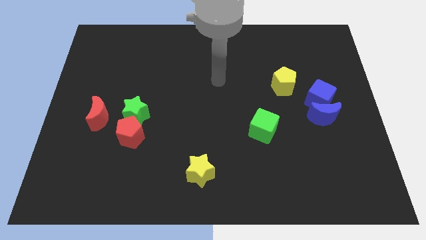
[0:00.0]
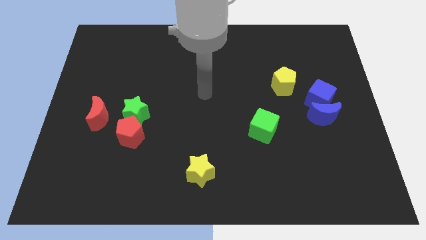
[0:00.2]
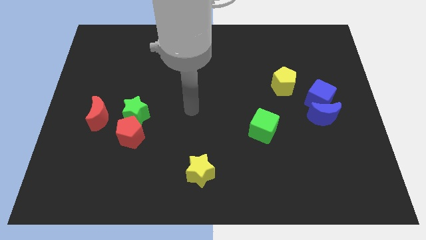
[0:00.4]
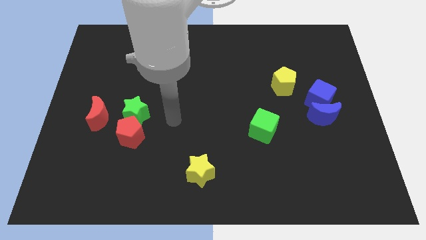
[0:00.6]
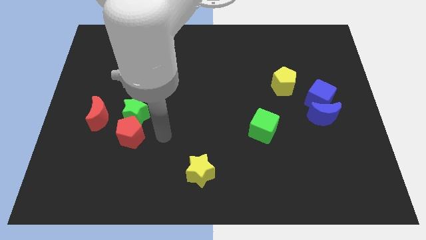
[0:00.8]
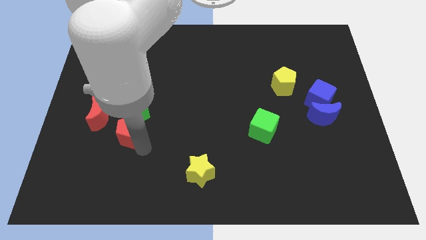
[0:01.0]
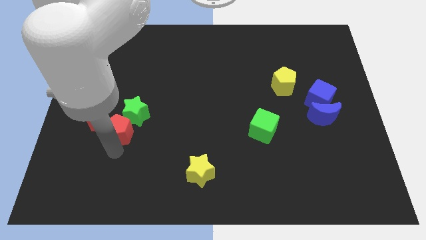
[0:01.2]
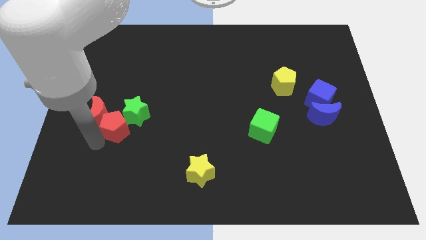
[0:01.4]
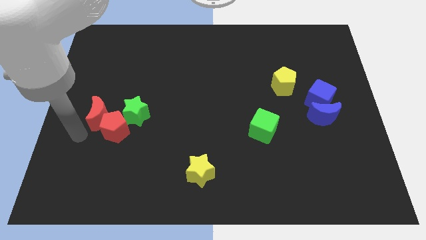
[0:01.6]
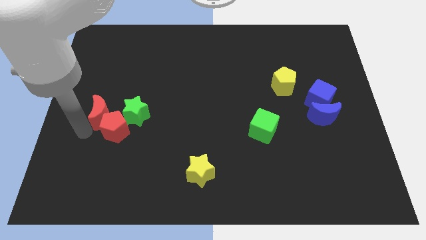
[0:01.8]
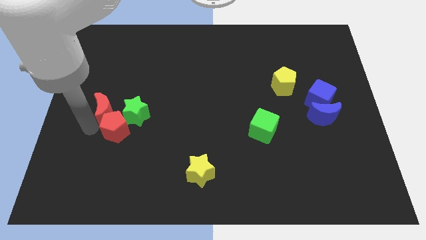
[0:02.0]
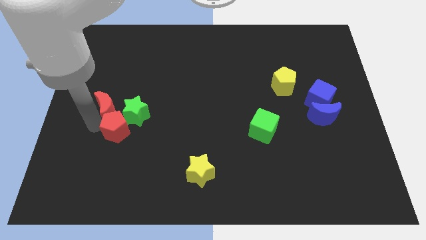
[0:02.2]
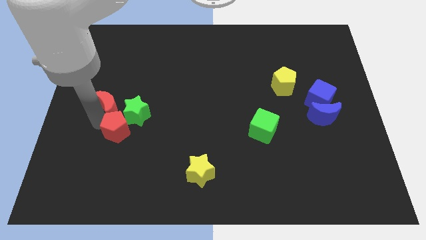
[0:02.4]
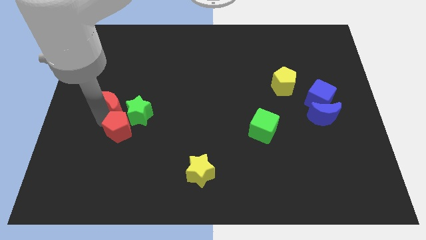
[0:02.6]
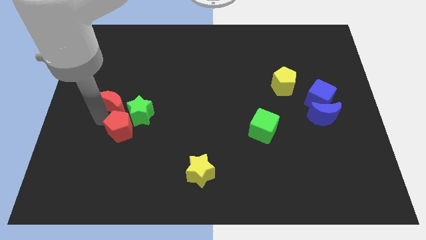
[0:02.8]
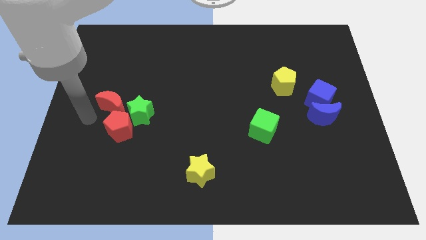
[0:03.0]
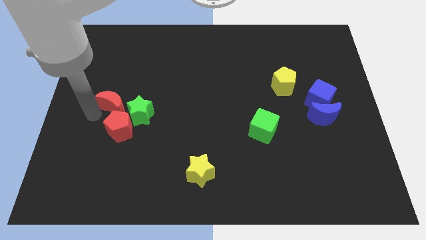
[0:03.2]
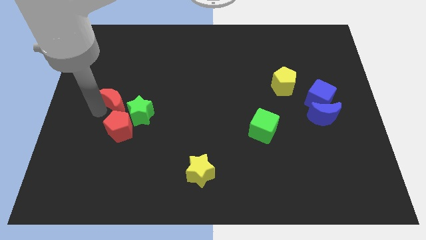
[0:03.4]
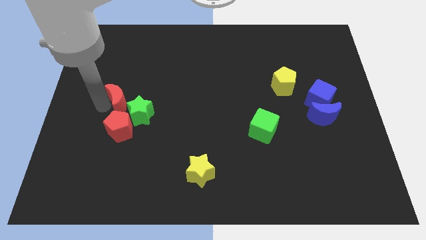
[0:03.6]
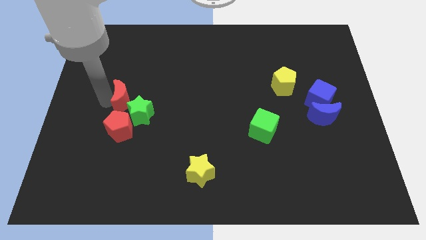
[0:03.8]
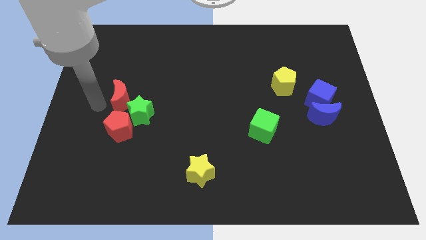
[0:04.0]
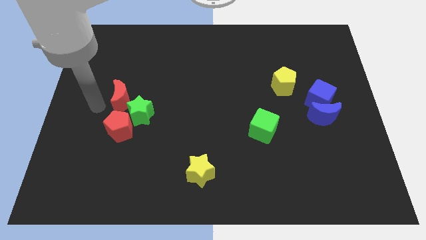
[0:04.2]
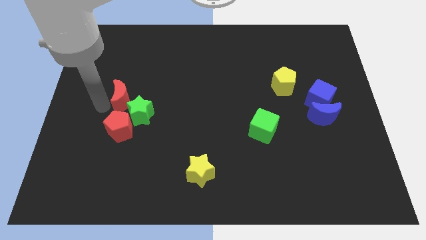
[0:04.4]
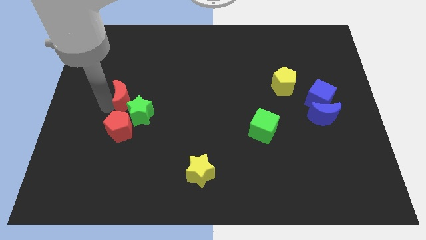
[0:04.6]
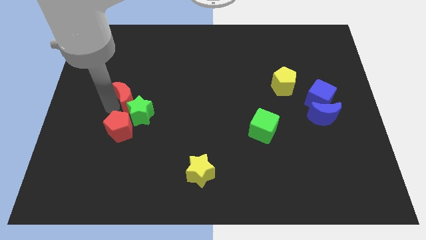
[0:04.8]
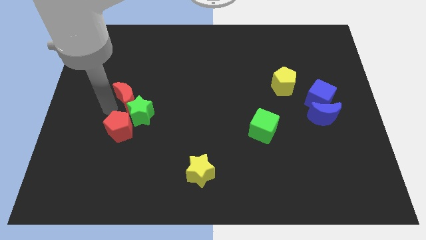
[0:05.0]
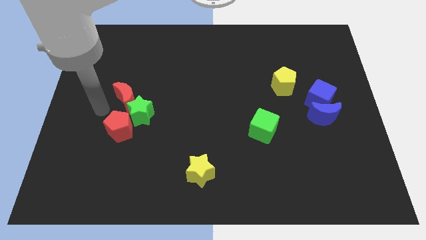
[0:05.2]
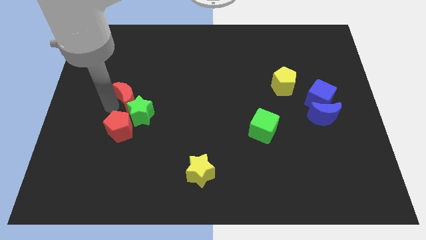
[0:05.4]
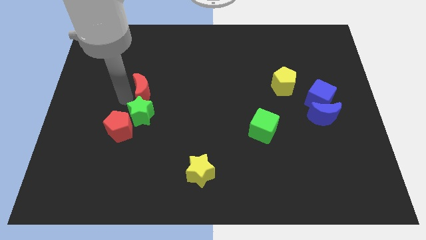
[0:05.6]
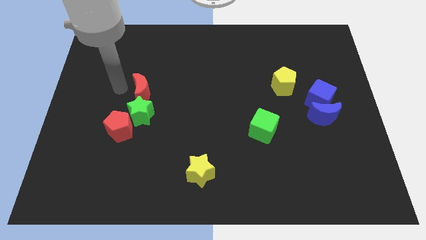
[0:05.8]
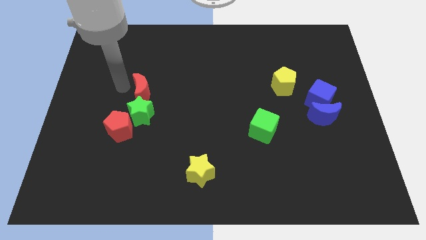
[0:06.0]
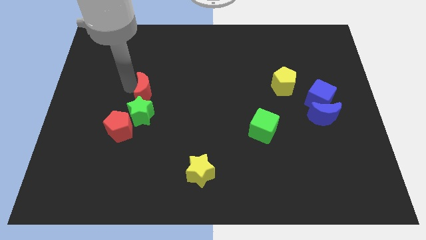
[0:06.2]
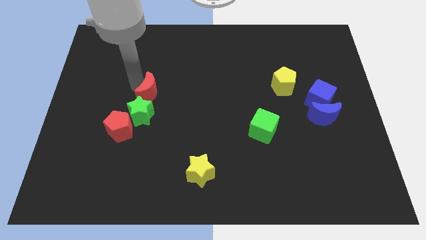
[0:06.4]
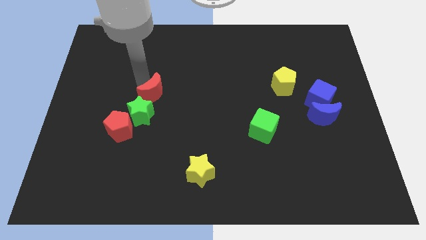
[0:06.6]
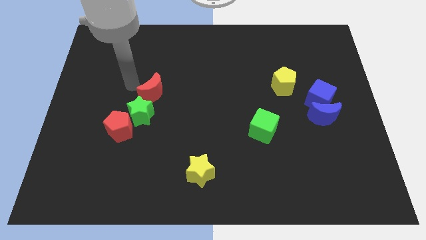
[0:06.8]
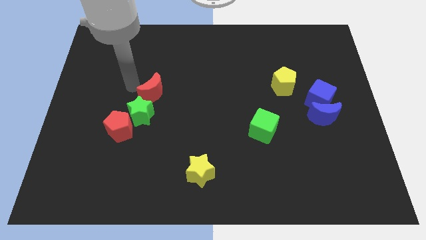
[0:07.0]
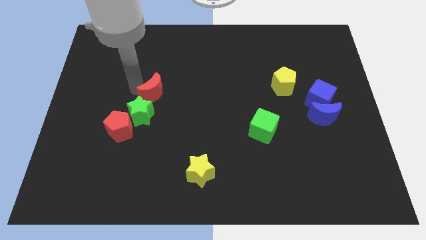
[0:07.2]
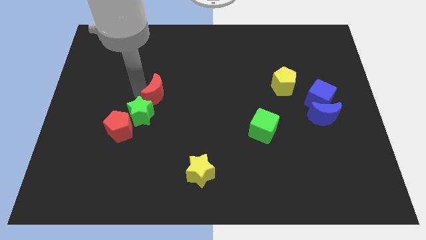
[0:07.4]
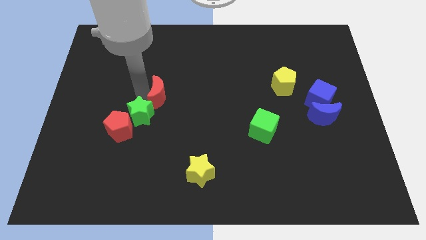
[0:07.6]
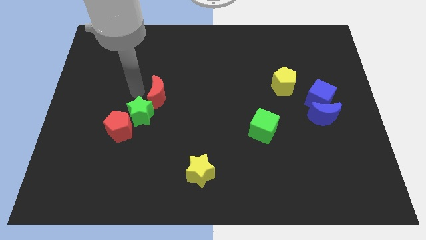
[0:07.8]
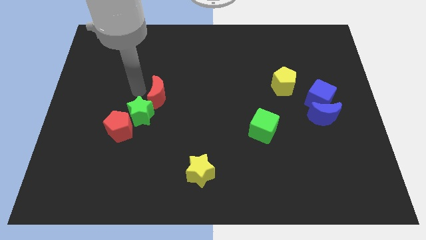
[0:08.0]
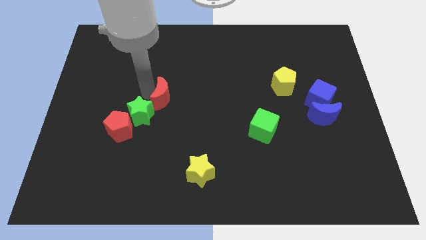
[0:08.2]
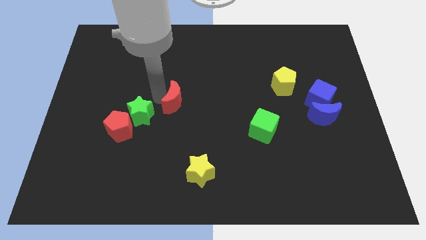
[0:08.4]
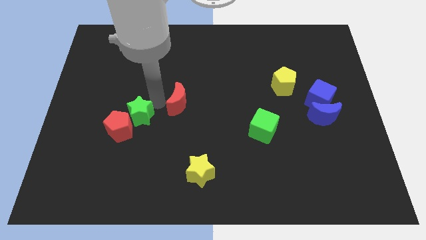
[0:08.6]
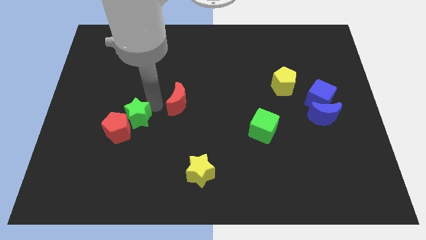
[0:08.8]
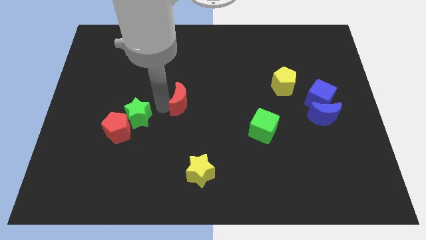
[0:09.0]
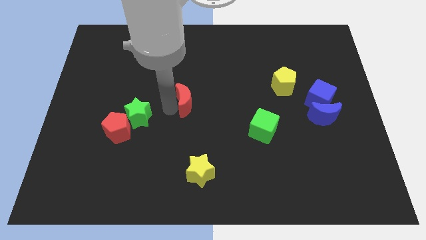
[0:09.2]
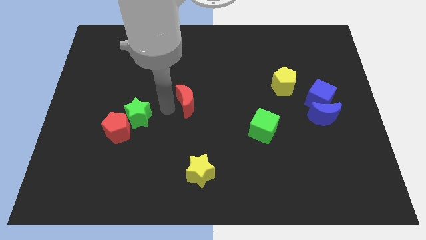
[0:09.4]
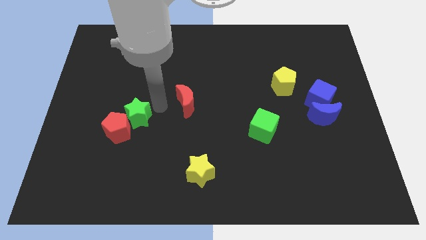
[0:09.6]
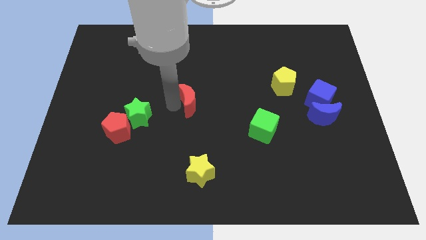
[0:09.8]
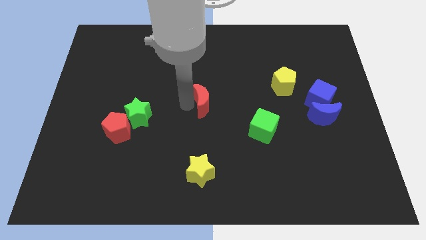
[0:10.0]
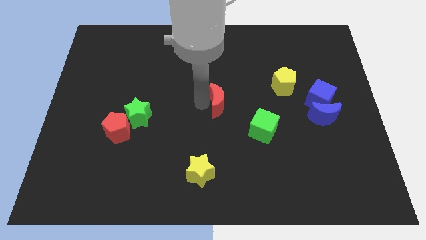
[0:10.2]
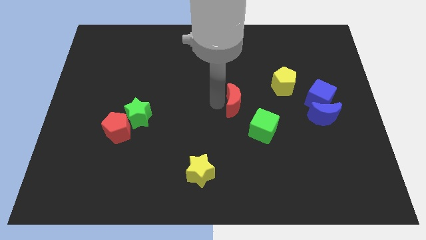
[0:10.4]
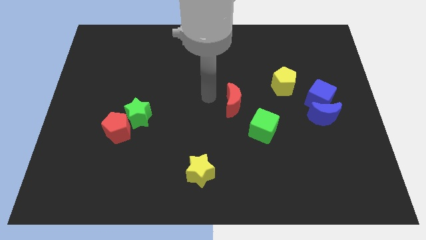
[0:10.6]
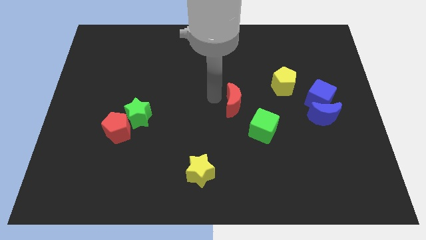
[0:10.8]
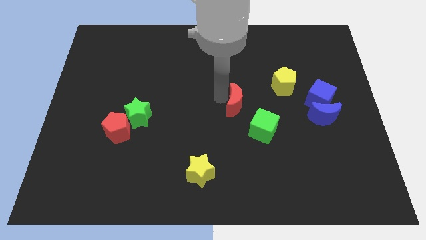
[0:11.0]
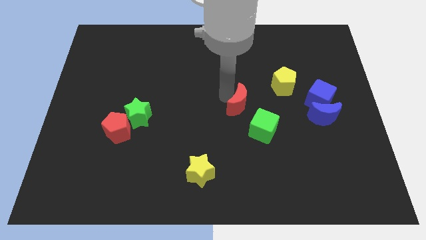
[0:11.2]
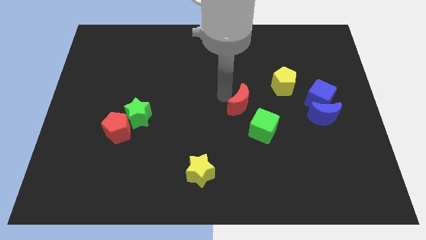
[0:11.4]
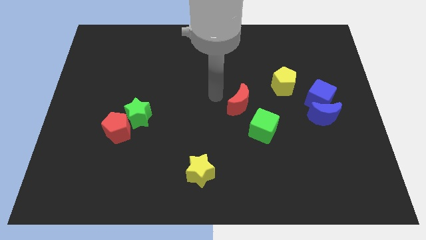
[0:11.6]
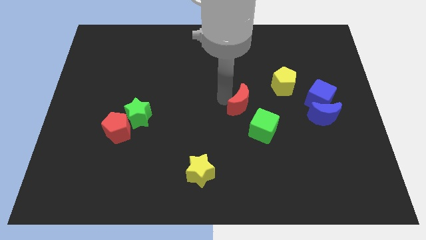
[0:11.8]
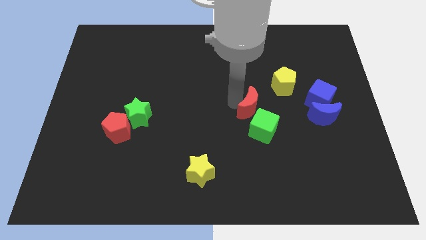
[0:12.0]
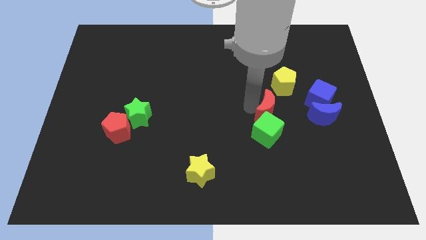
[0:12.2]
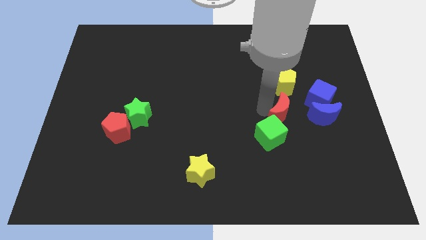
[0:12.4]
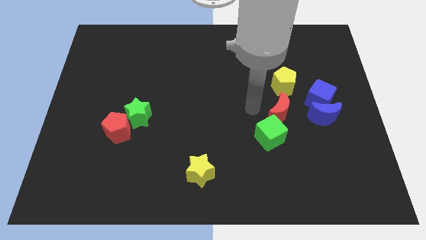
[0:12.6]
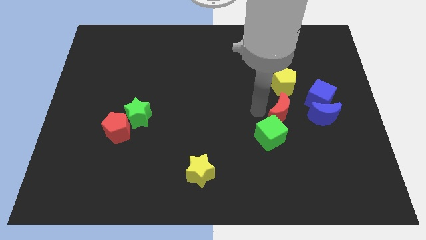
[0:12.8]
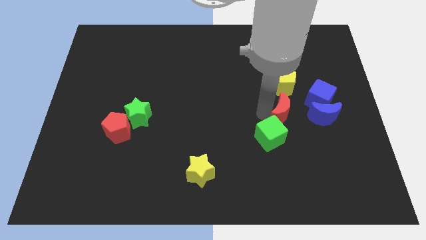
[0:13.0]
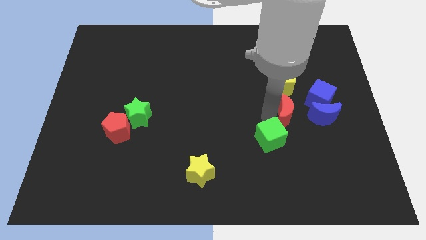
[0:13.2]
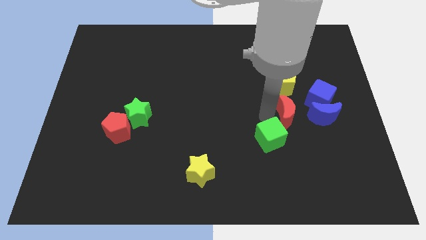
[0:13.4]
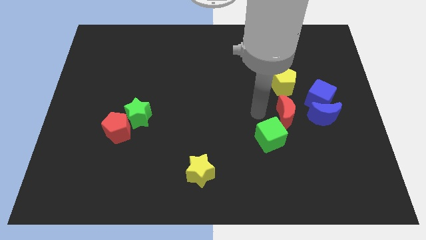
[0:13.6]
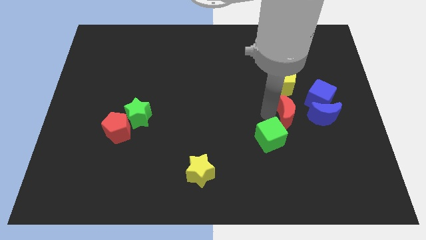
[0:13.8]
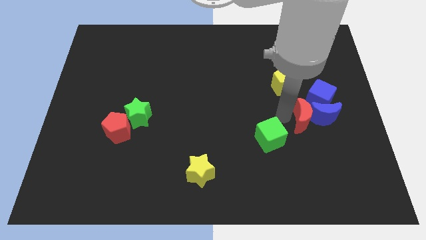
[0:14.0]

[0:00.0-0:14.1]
slide the red moon close to the blue moon
